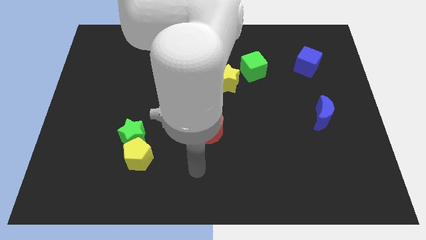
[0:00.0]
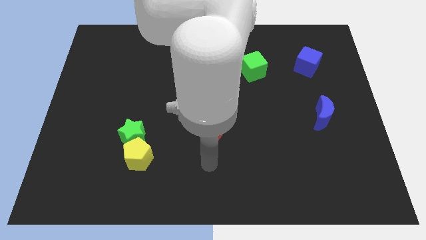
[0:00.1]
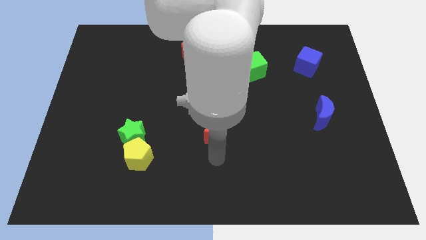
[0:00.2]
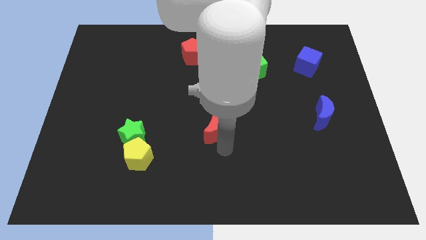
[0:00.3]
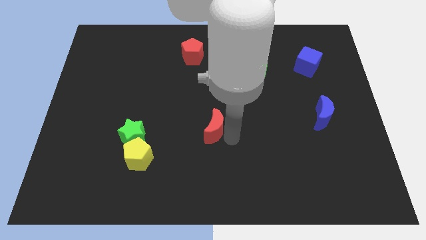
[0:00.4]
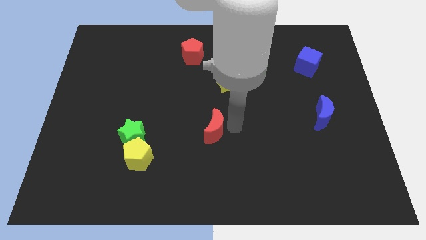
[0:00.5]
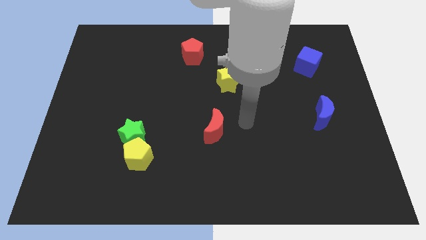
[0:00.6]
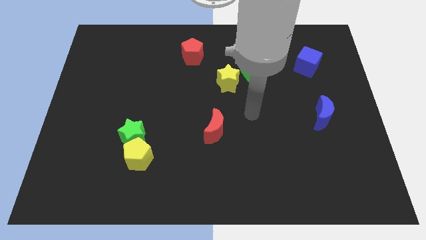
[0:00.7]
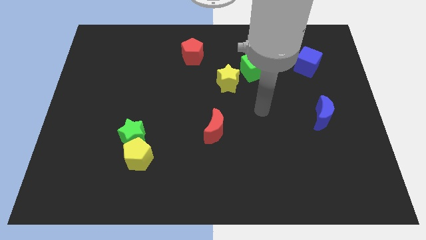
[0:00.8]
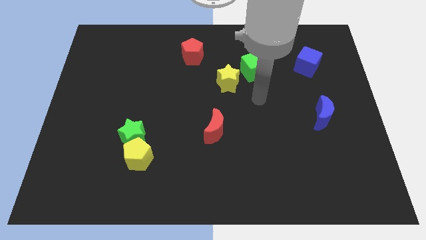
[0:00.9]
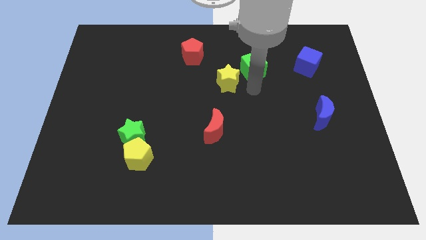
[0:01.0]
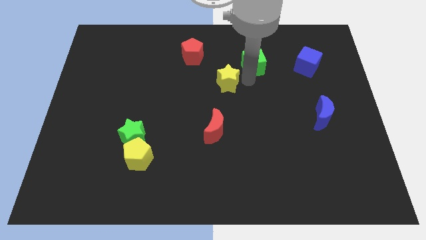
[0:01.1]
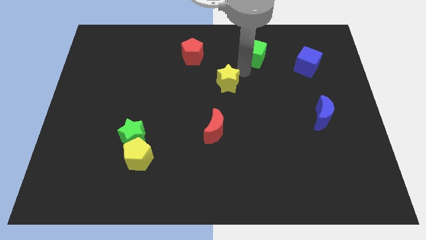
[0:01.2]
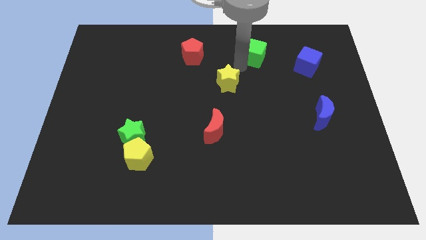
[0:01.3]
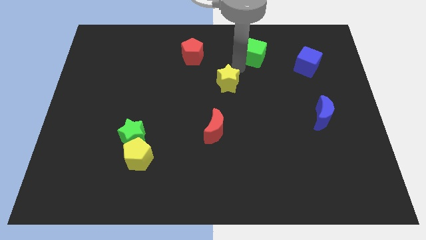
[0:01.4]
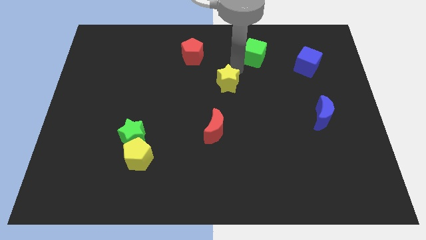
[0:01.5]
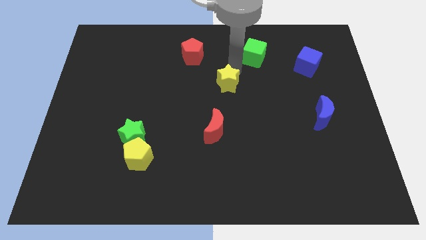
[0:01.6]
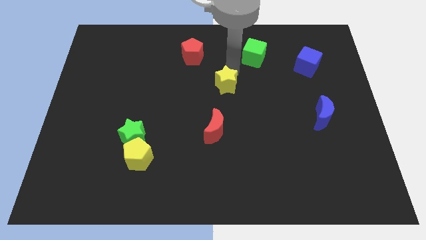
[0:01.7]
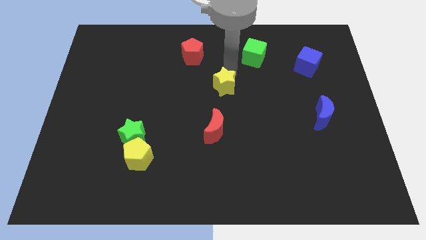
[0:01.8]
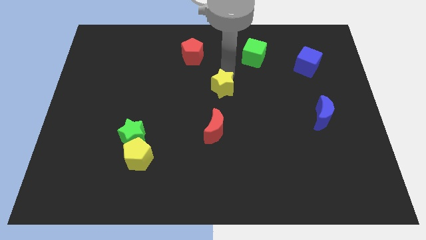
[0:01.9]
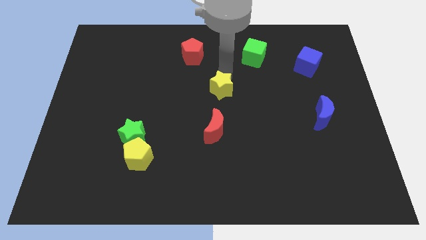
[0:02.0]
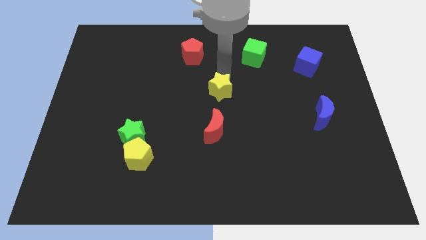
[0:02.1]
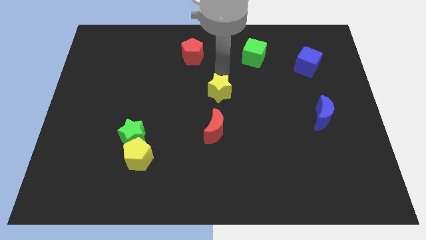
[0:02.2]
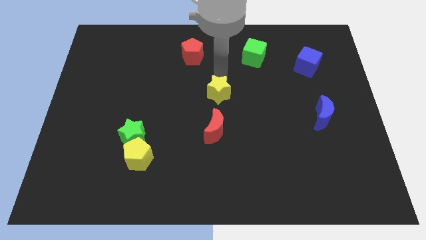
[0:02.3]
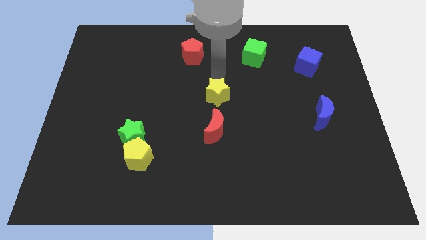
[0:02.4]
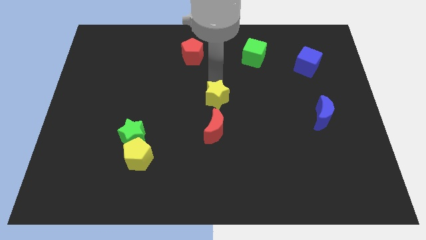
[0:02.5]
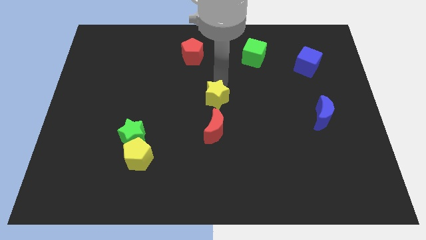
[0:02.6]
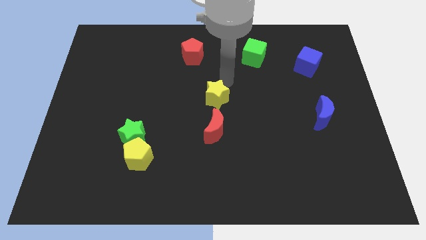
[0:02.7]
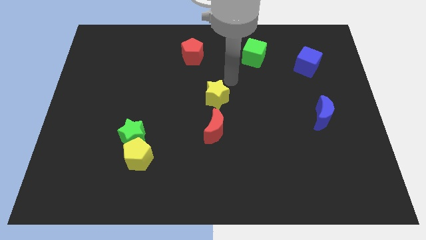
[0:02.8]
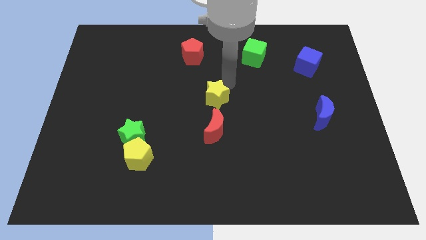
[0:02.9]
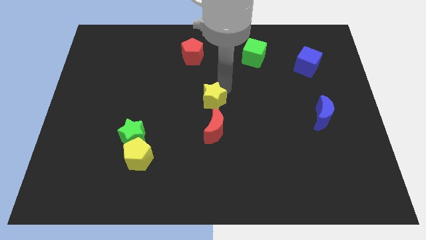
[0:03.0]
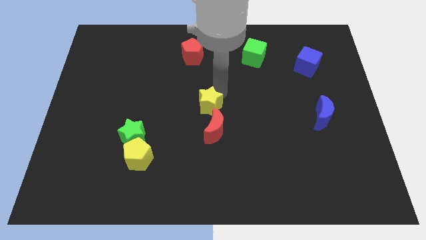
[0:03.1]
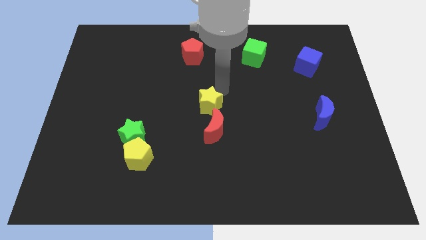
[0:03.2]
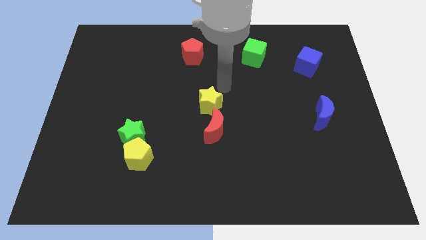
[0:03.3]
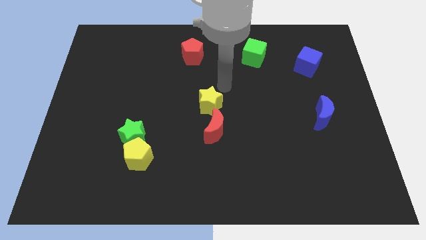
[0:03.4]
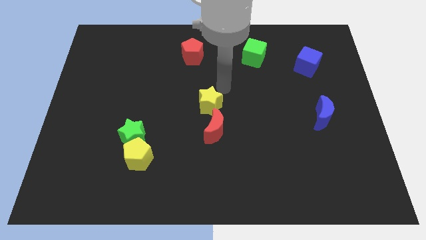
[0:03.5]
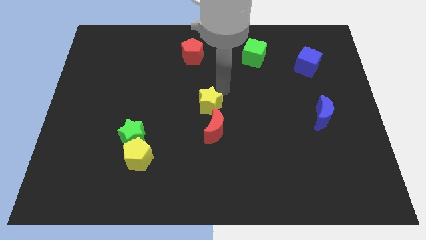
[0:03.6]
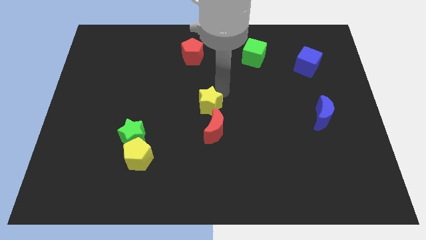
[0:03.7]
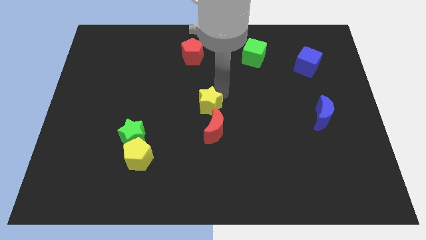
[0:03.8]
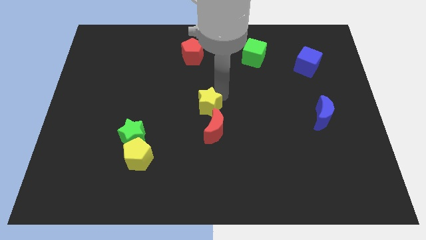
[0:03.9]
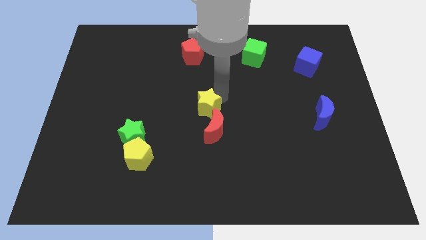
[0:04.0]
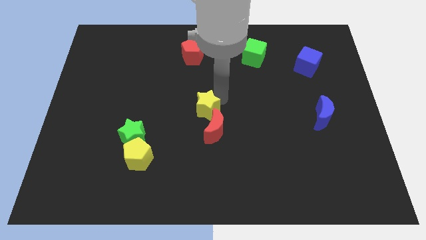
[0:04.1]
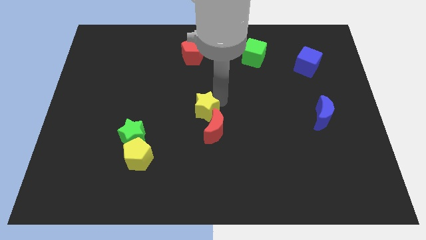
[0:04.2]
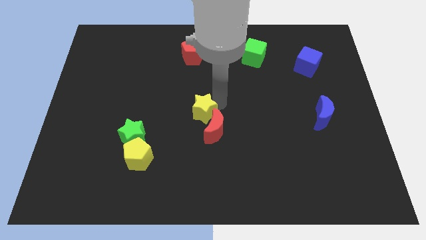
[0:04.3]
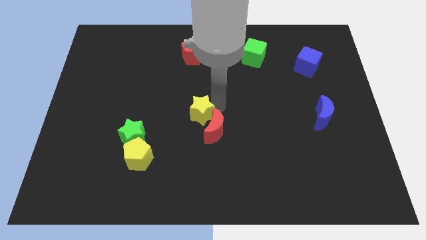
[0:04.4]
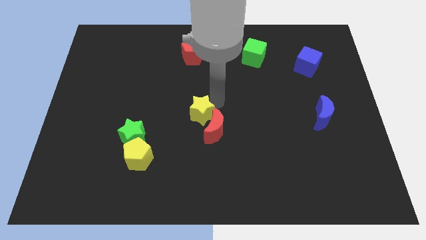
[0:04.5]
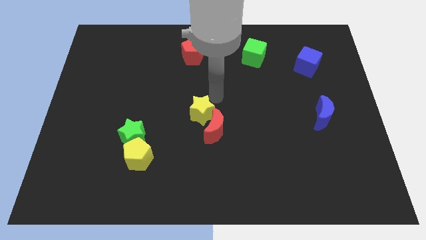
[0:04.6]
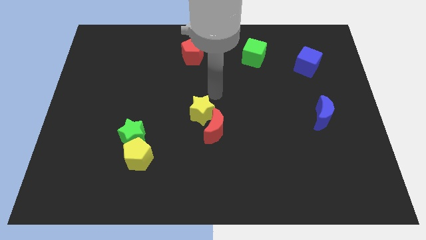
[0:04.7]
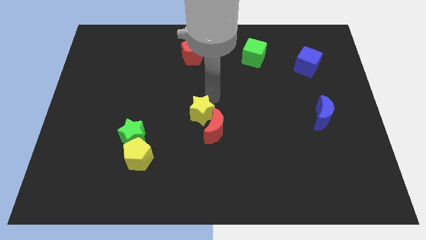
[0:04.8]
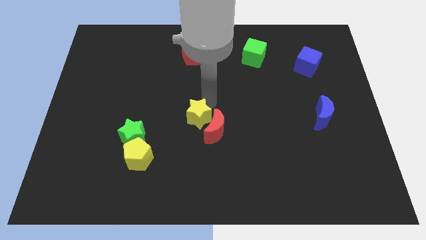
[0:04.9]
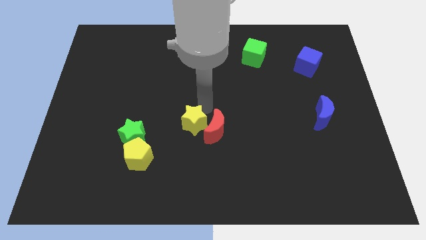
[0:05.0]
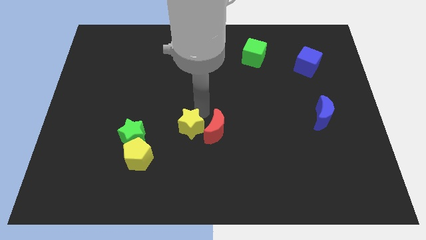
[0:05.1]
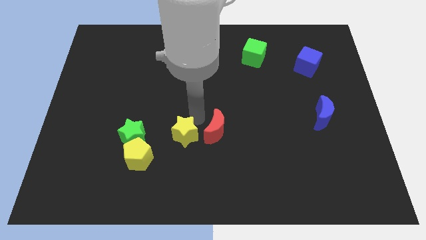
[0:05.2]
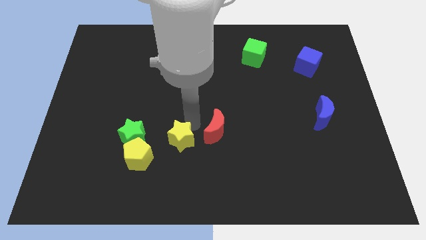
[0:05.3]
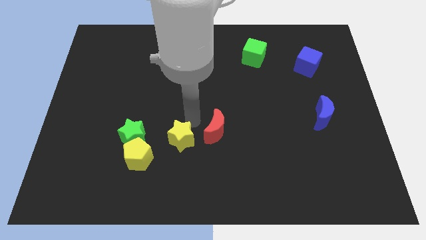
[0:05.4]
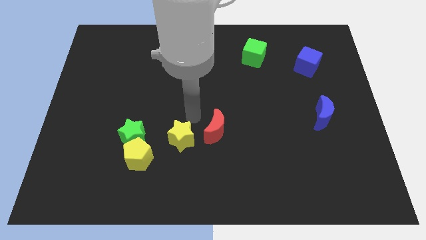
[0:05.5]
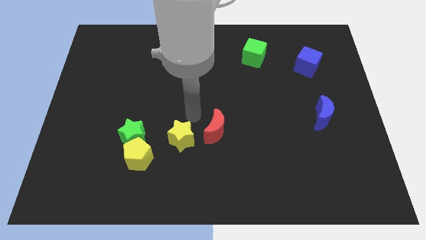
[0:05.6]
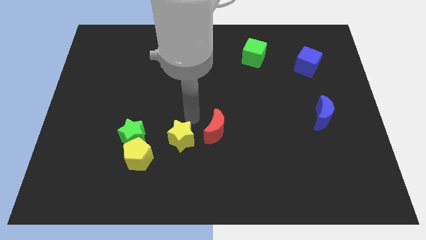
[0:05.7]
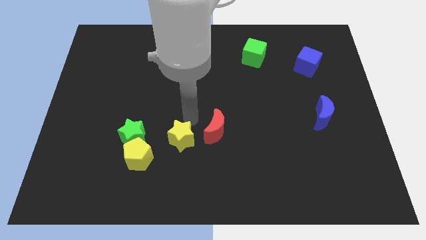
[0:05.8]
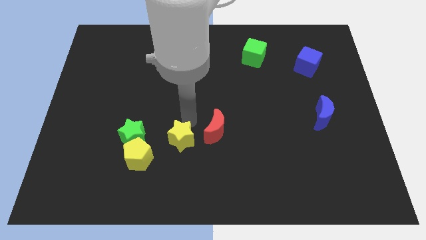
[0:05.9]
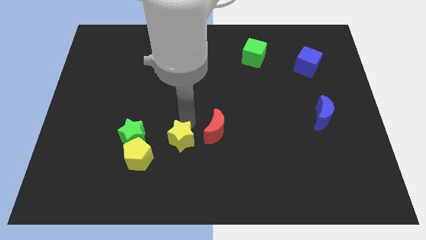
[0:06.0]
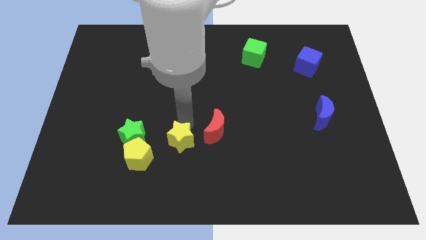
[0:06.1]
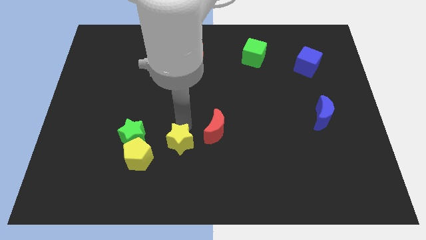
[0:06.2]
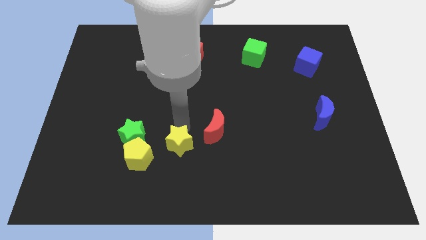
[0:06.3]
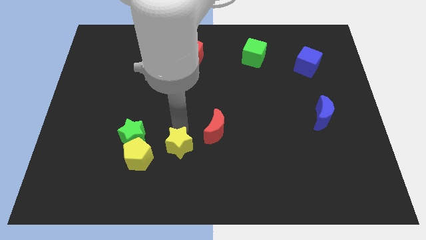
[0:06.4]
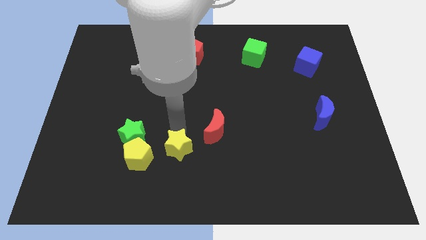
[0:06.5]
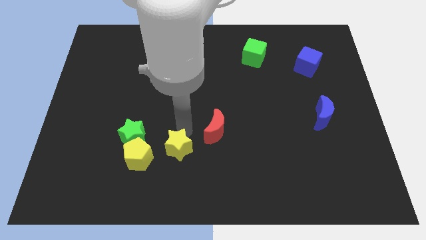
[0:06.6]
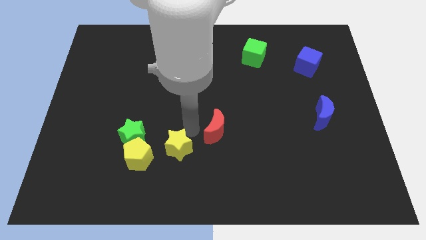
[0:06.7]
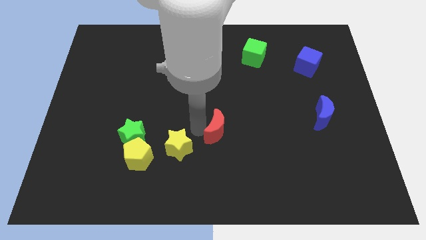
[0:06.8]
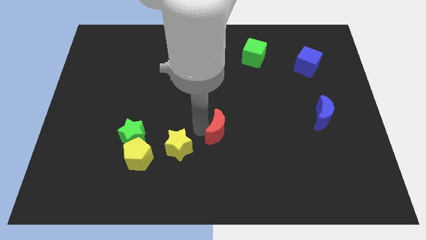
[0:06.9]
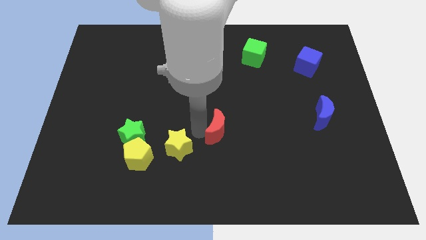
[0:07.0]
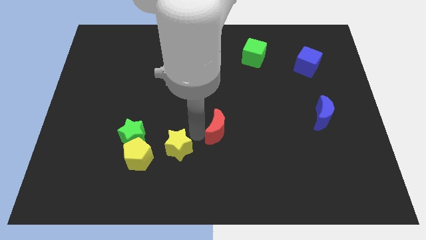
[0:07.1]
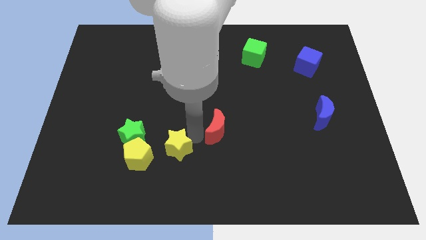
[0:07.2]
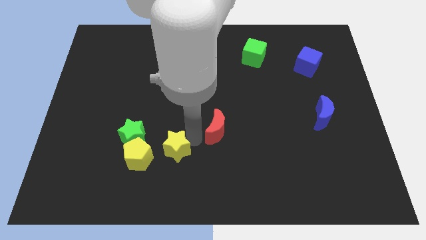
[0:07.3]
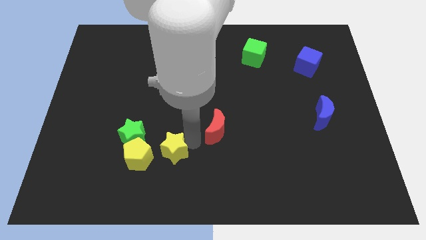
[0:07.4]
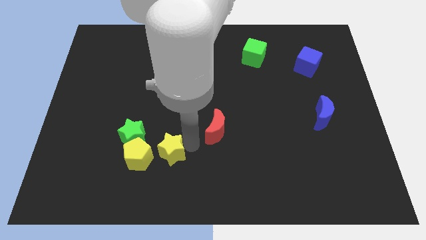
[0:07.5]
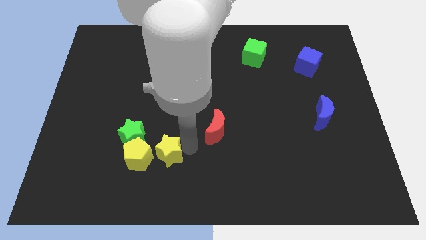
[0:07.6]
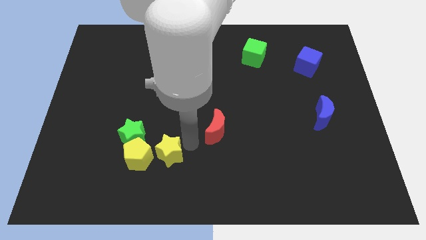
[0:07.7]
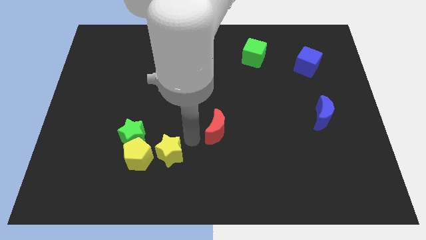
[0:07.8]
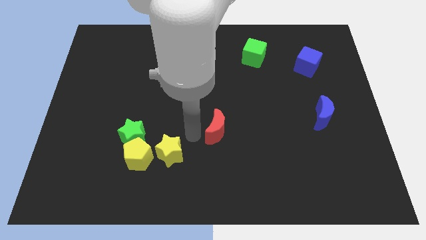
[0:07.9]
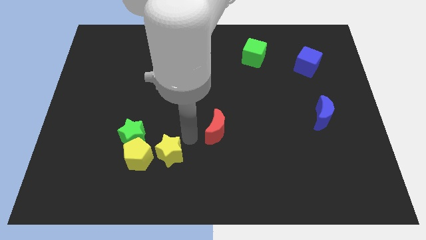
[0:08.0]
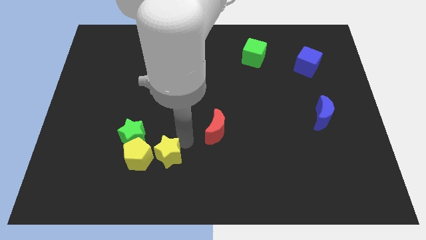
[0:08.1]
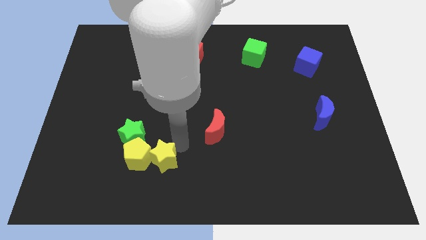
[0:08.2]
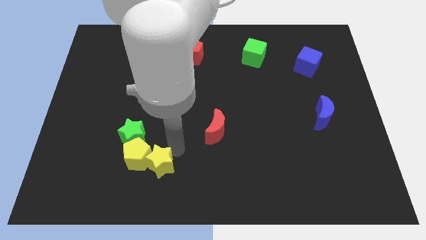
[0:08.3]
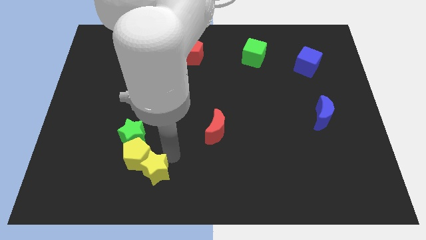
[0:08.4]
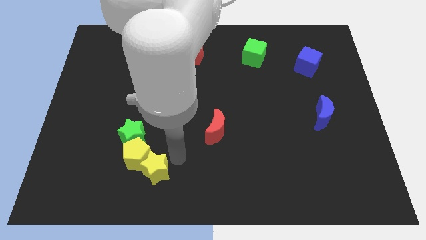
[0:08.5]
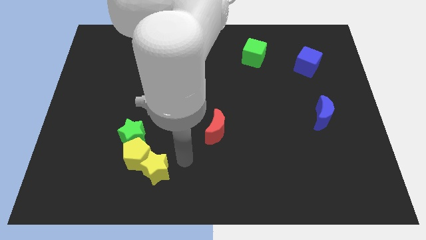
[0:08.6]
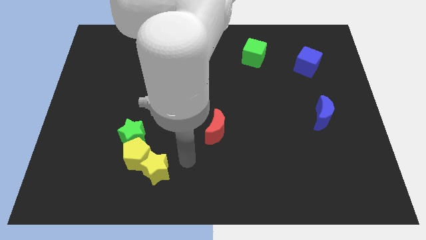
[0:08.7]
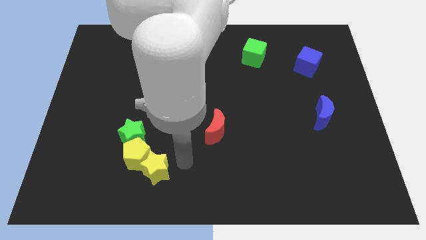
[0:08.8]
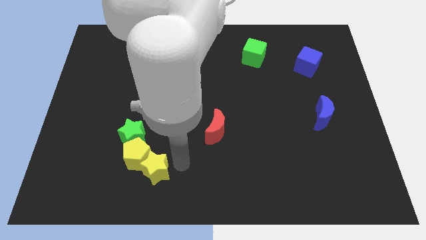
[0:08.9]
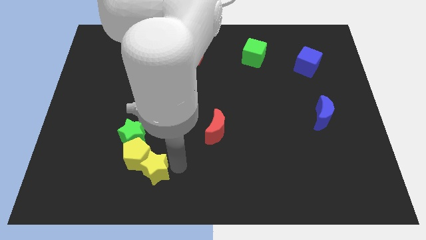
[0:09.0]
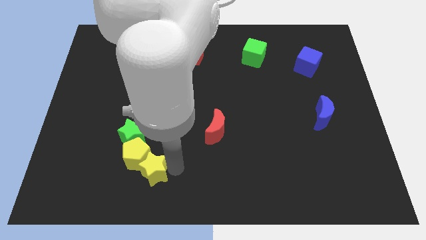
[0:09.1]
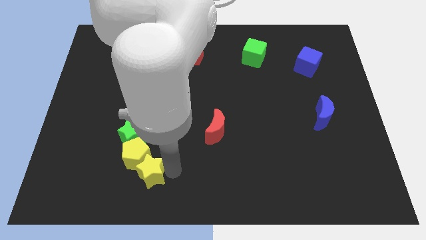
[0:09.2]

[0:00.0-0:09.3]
move the yellow star to the bottom side of the green star
